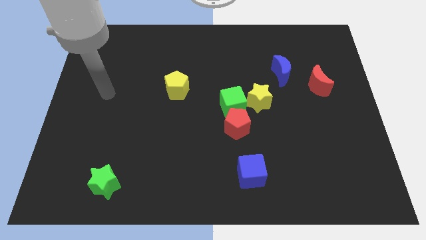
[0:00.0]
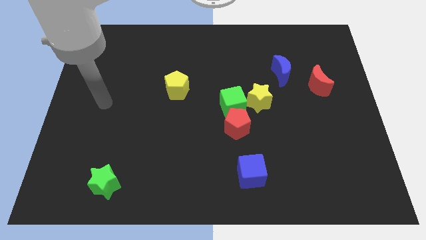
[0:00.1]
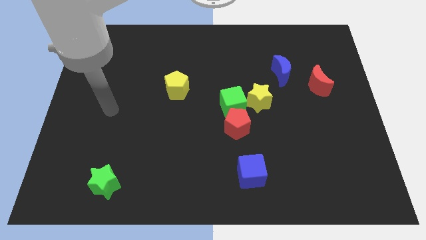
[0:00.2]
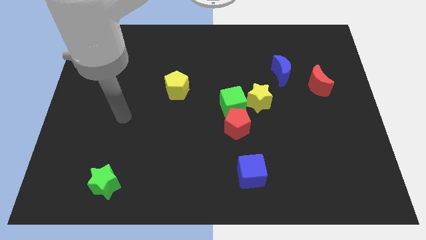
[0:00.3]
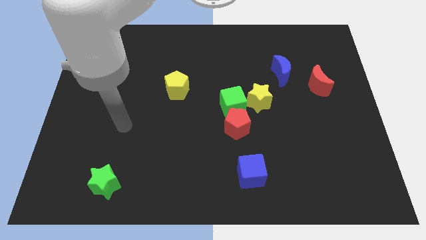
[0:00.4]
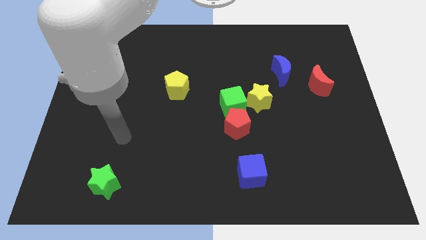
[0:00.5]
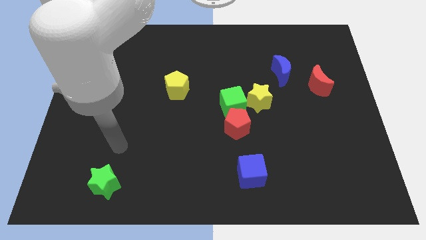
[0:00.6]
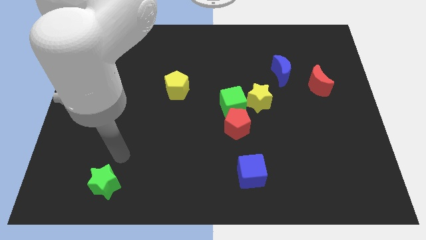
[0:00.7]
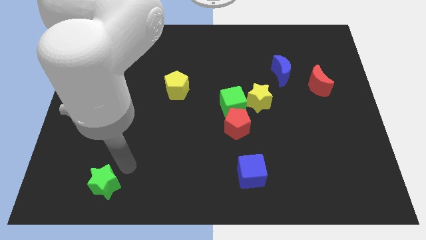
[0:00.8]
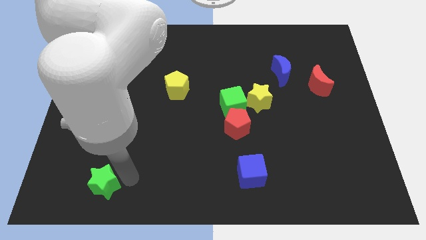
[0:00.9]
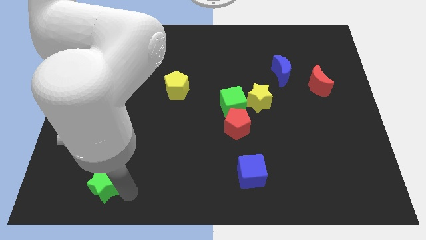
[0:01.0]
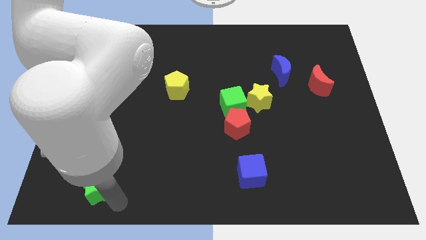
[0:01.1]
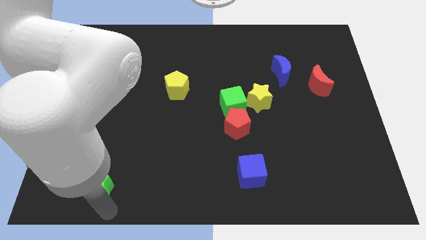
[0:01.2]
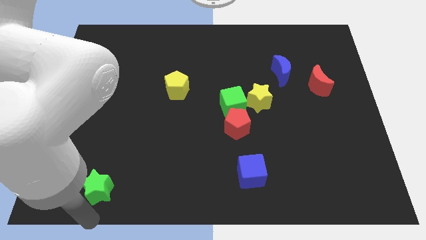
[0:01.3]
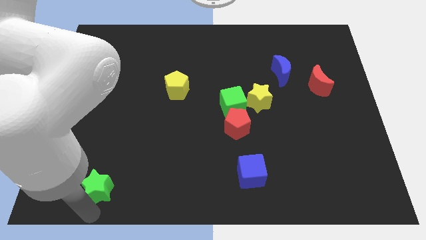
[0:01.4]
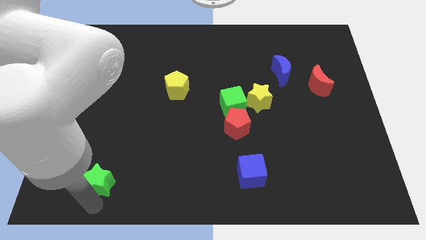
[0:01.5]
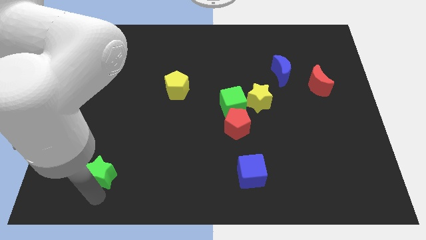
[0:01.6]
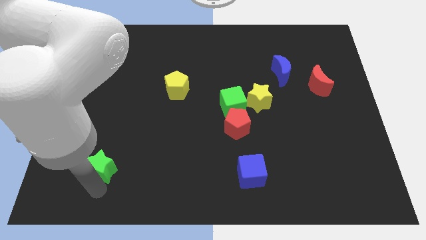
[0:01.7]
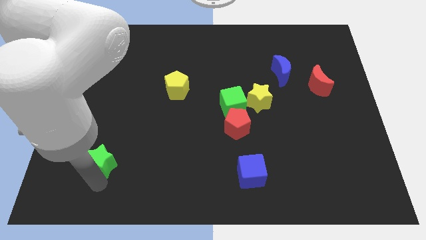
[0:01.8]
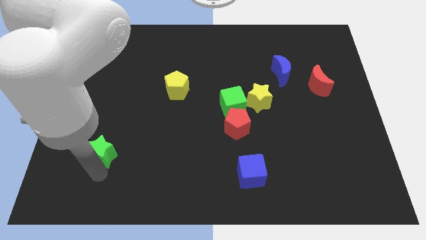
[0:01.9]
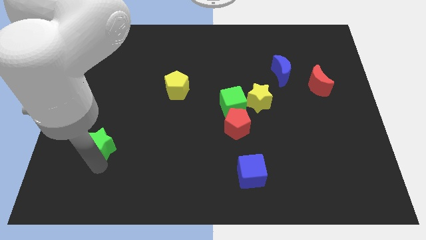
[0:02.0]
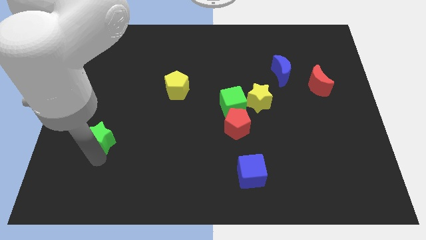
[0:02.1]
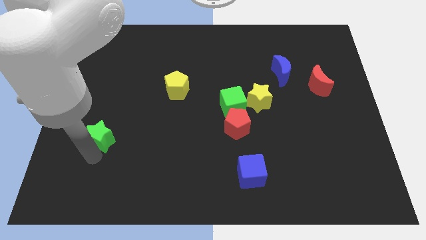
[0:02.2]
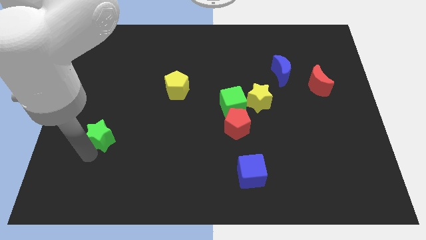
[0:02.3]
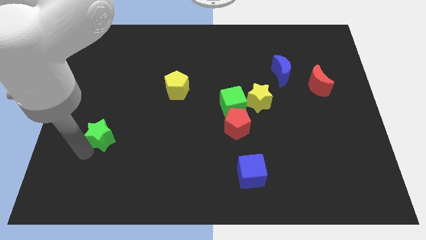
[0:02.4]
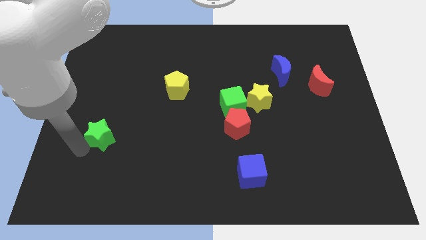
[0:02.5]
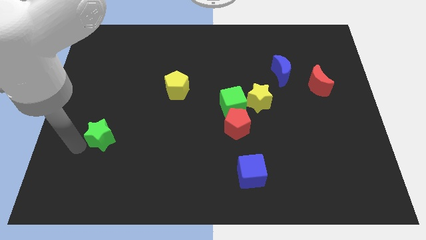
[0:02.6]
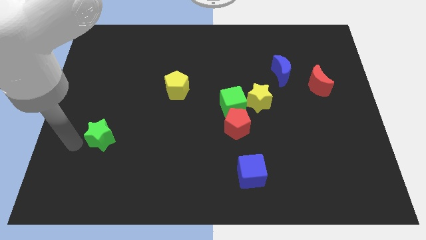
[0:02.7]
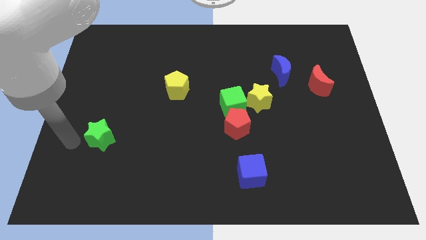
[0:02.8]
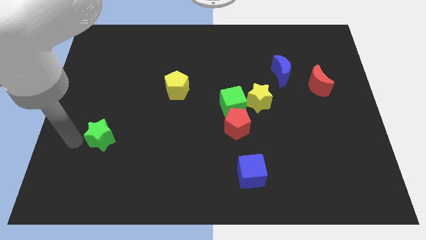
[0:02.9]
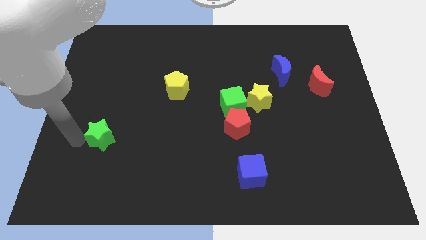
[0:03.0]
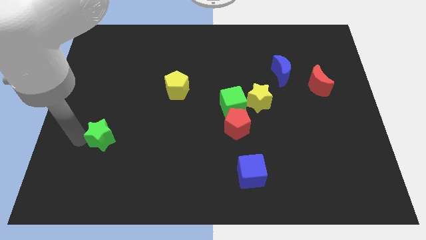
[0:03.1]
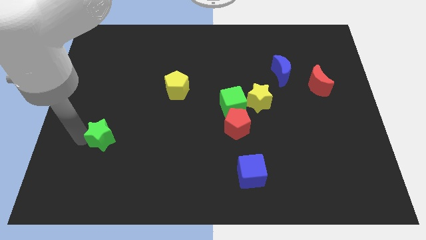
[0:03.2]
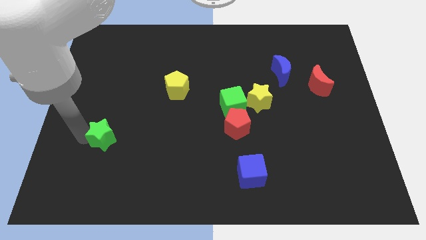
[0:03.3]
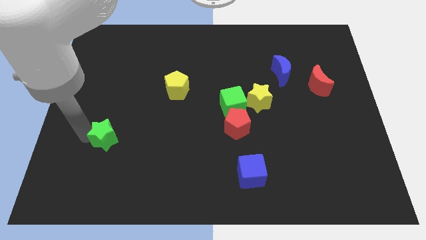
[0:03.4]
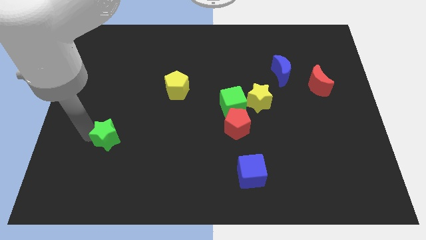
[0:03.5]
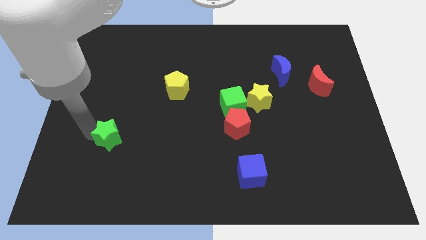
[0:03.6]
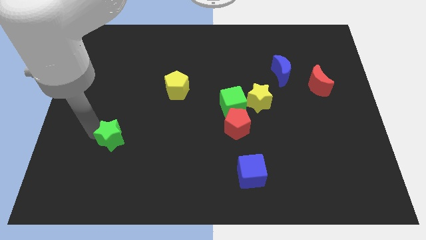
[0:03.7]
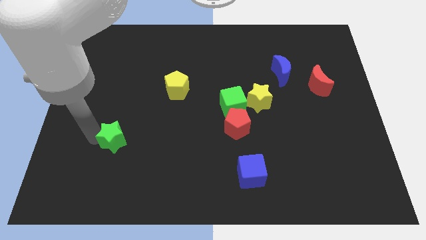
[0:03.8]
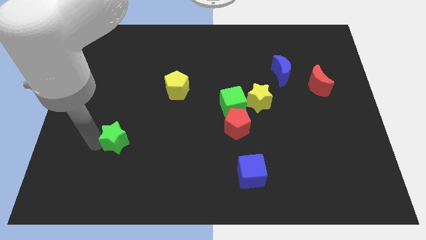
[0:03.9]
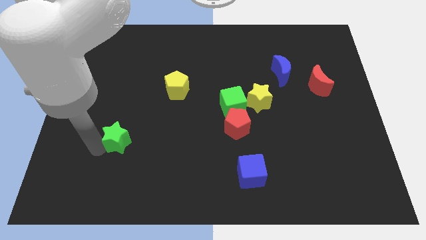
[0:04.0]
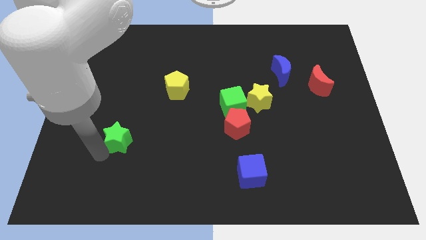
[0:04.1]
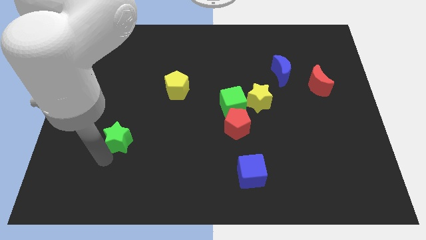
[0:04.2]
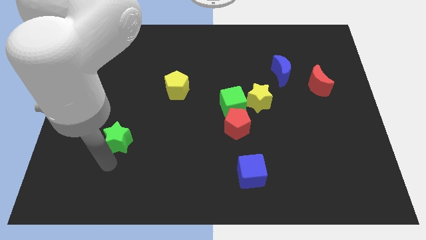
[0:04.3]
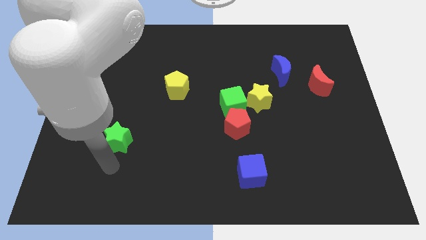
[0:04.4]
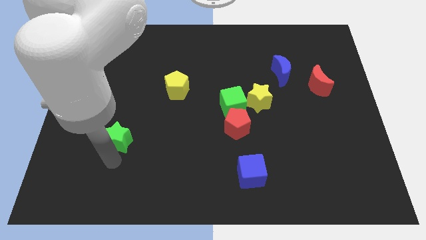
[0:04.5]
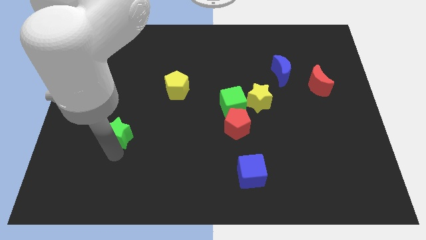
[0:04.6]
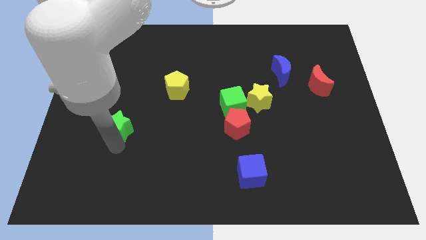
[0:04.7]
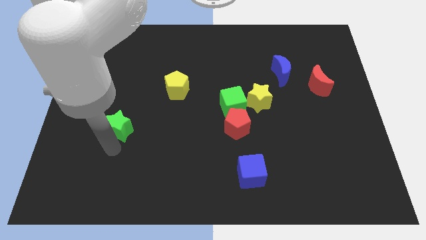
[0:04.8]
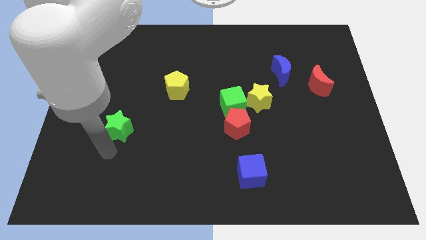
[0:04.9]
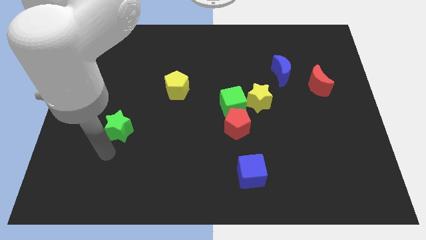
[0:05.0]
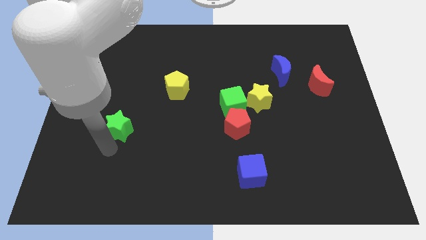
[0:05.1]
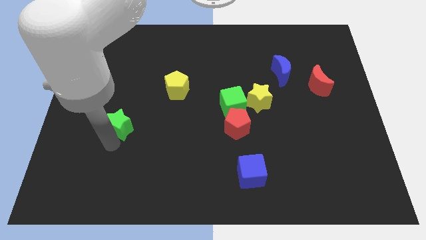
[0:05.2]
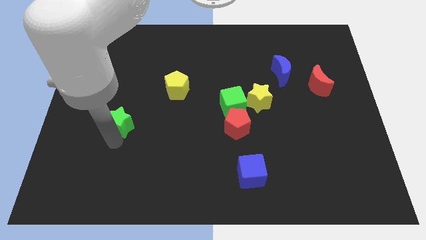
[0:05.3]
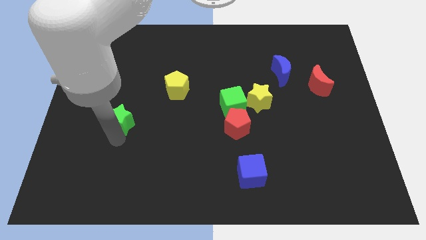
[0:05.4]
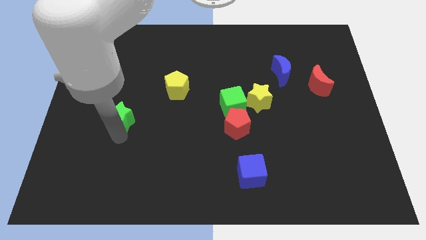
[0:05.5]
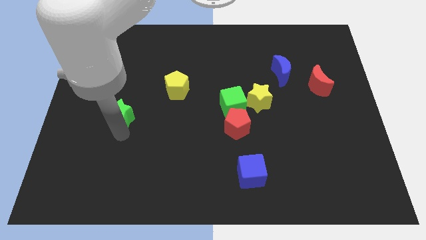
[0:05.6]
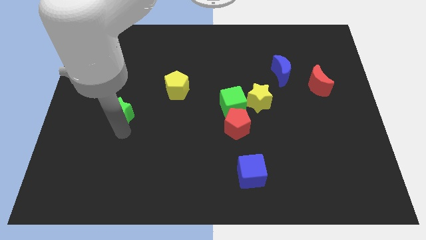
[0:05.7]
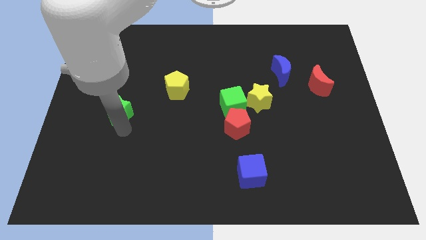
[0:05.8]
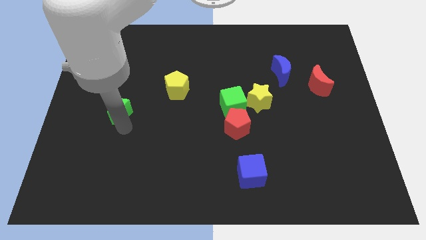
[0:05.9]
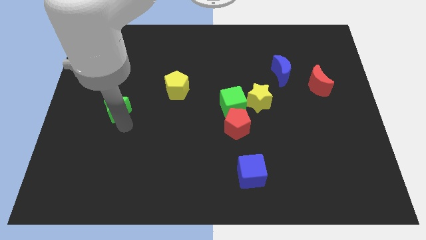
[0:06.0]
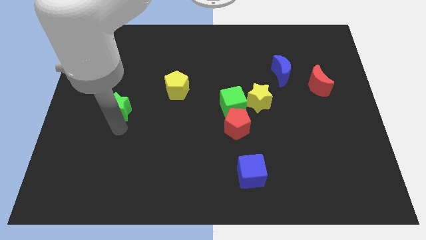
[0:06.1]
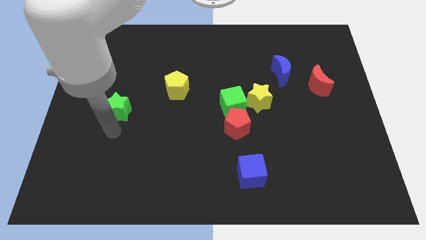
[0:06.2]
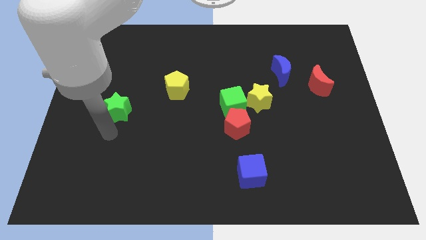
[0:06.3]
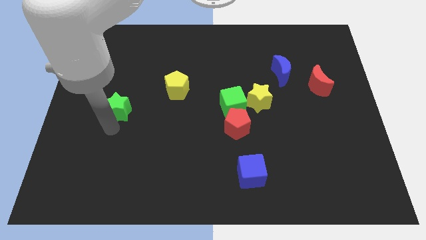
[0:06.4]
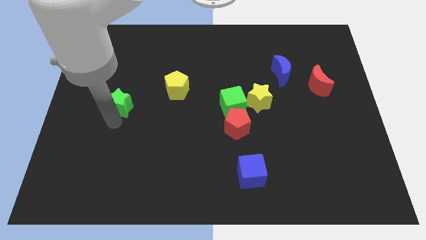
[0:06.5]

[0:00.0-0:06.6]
move the green star upwards

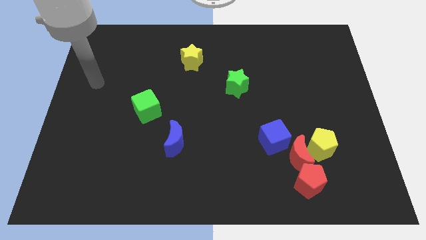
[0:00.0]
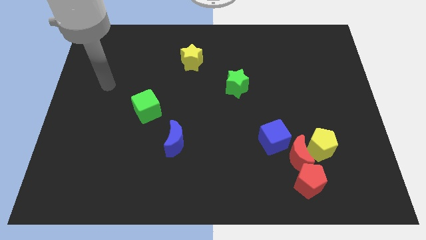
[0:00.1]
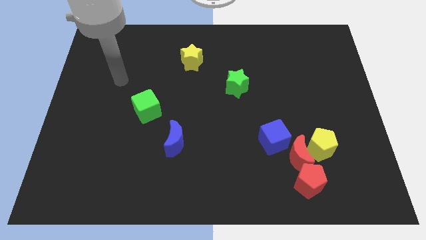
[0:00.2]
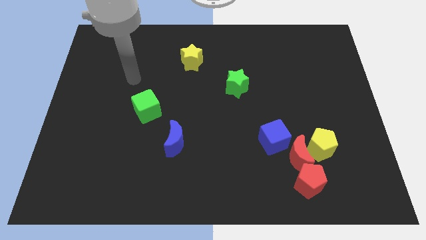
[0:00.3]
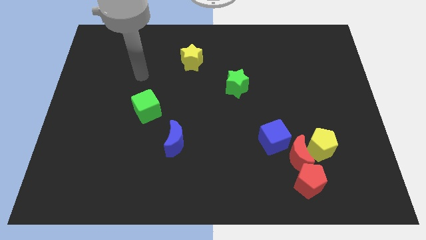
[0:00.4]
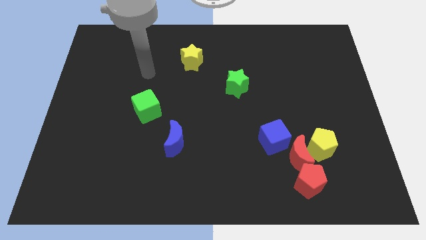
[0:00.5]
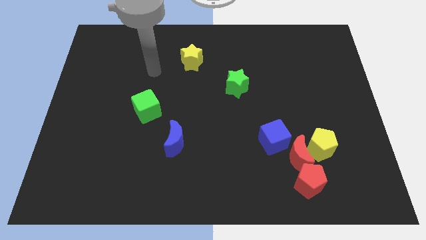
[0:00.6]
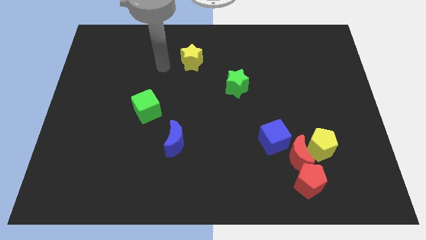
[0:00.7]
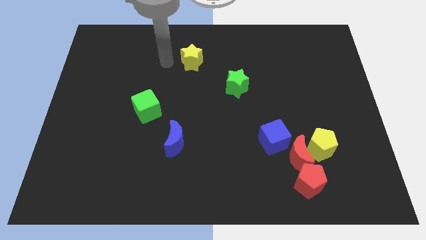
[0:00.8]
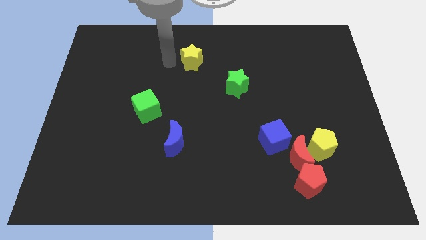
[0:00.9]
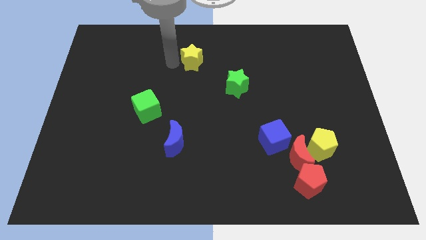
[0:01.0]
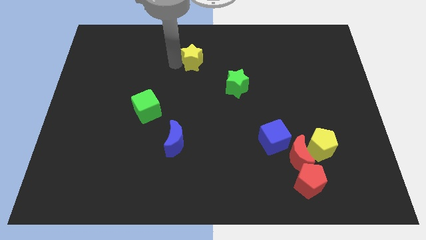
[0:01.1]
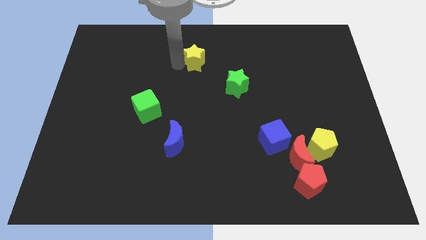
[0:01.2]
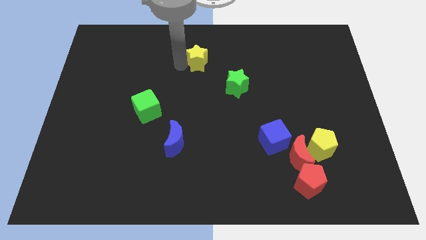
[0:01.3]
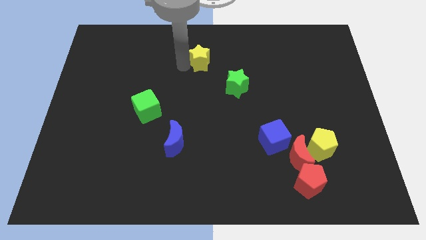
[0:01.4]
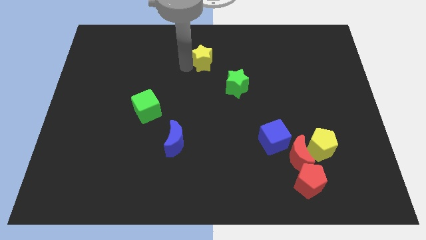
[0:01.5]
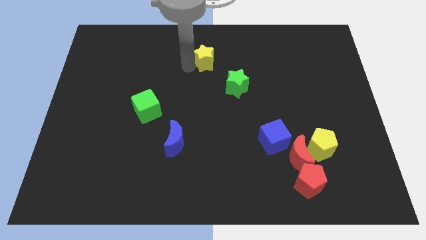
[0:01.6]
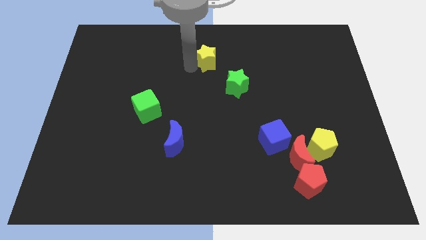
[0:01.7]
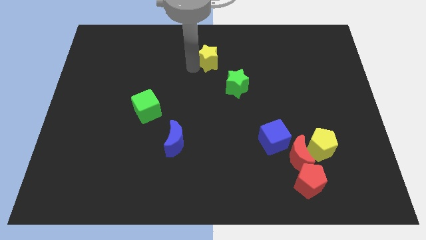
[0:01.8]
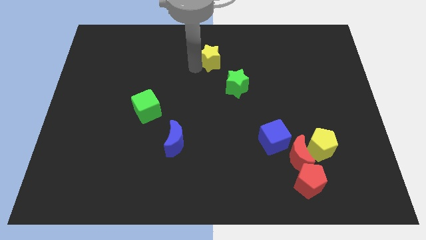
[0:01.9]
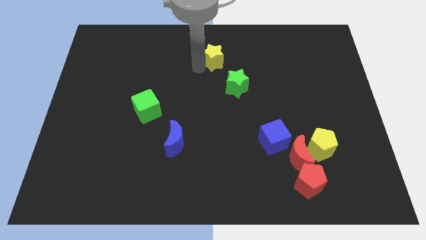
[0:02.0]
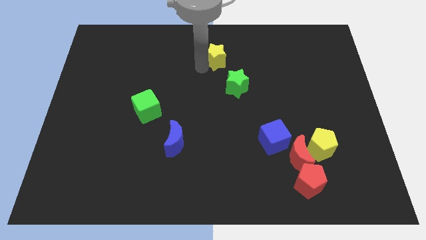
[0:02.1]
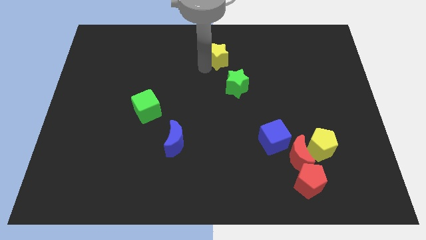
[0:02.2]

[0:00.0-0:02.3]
move the yellow star slightly to the right
